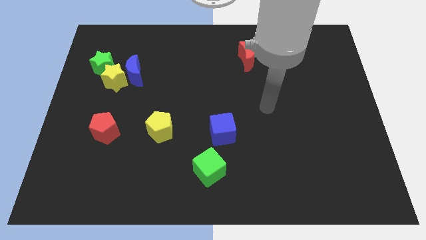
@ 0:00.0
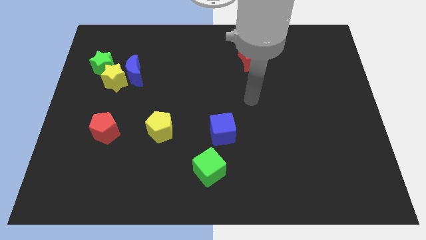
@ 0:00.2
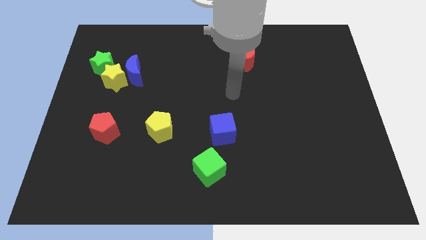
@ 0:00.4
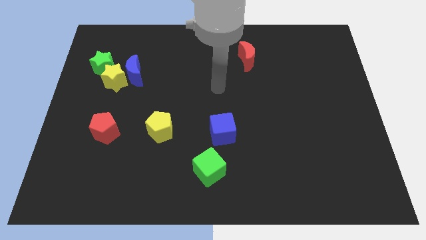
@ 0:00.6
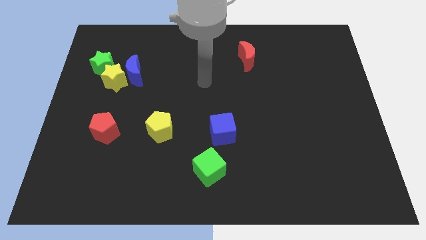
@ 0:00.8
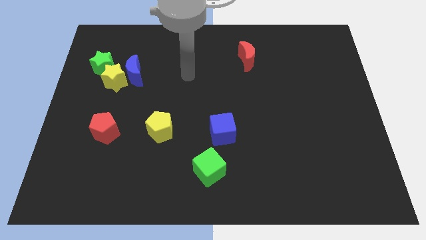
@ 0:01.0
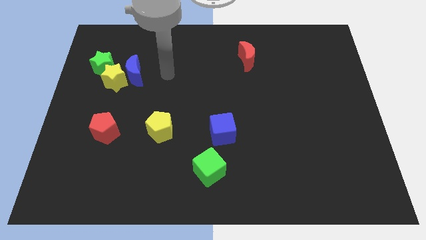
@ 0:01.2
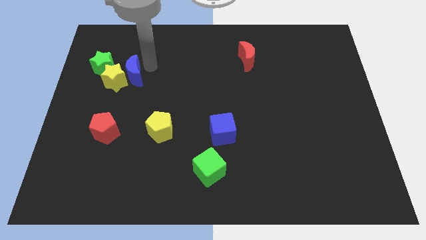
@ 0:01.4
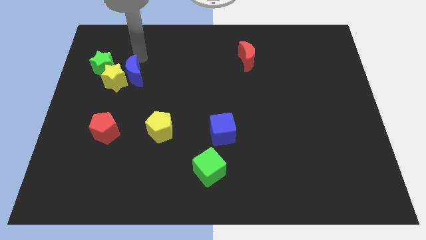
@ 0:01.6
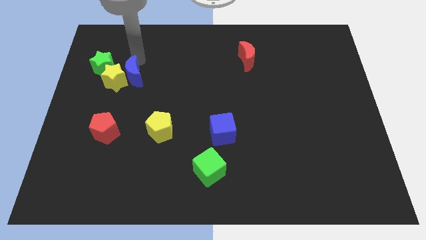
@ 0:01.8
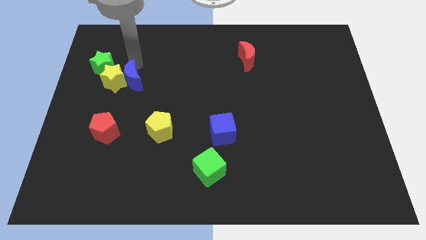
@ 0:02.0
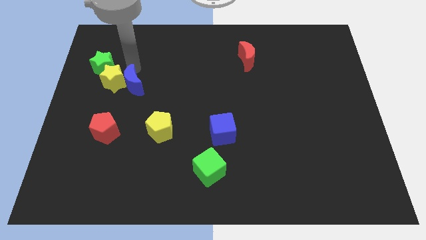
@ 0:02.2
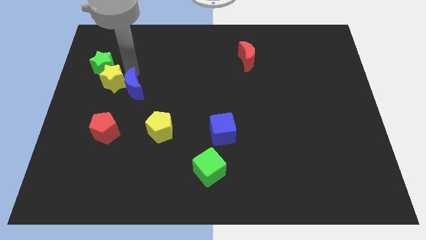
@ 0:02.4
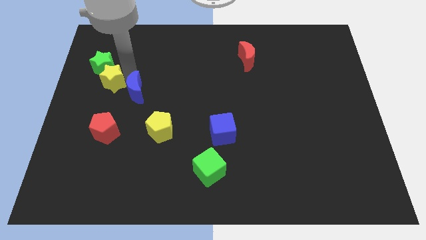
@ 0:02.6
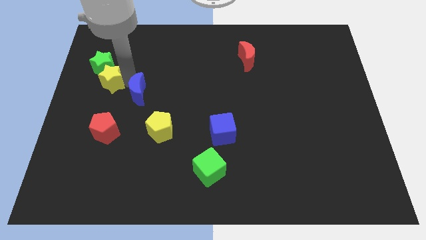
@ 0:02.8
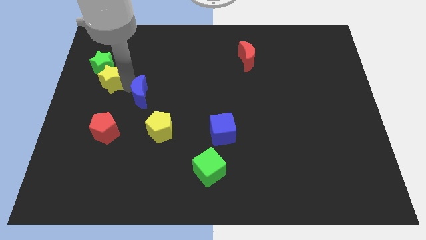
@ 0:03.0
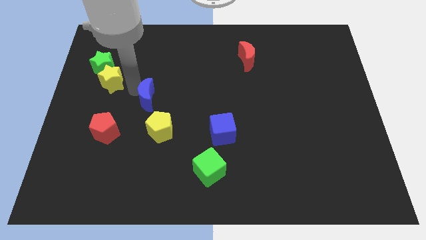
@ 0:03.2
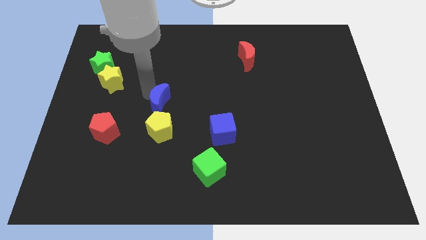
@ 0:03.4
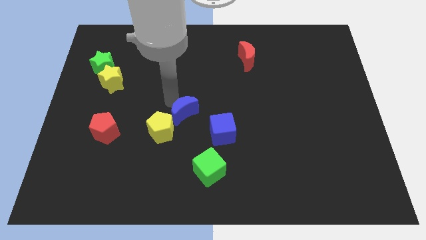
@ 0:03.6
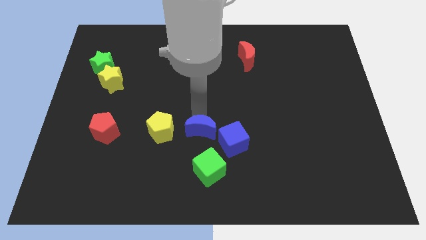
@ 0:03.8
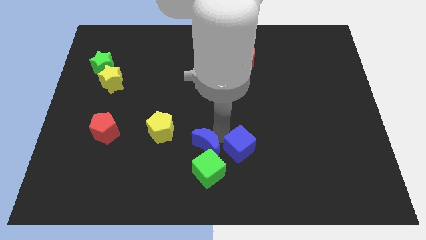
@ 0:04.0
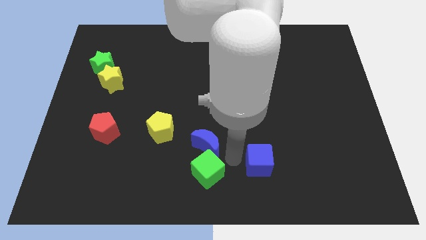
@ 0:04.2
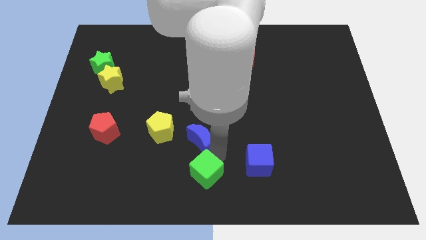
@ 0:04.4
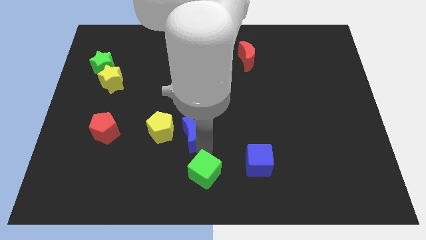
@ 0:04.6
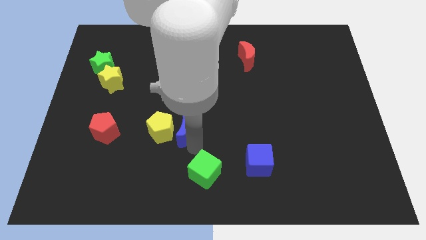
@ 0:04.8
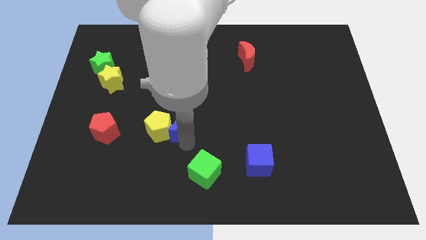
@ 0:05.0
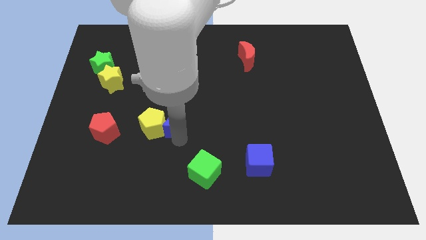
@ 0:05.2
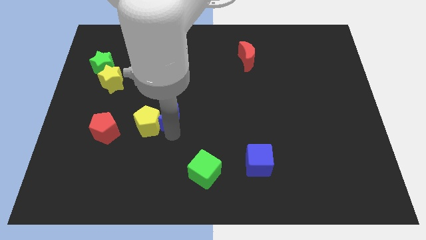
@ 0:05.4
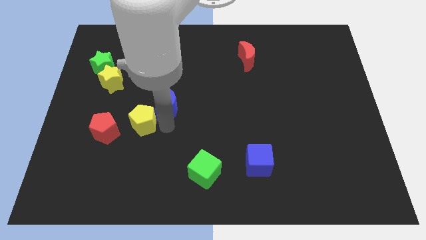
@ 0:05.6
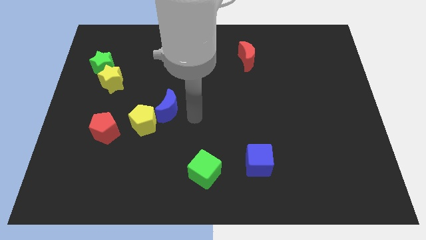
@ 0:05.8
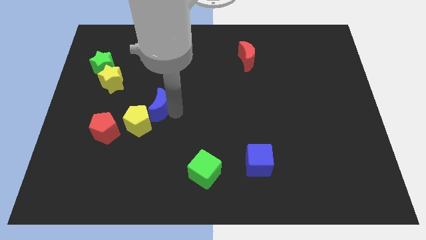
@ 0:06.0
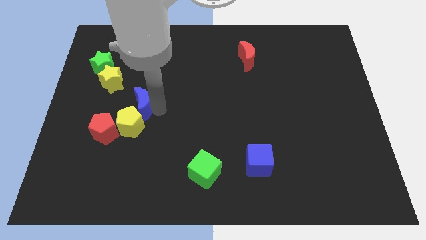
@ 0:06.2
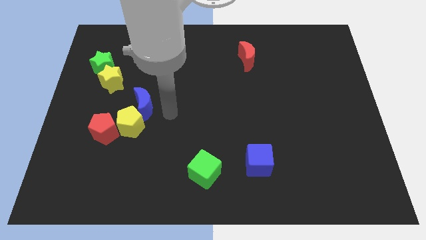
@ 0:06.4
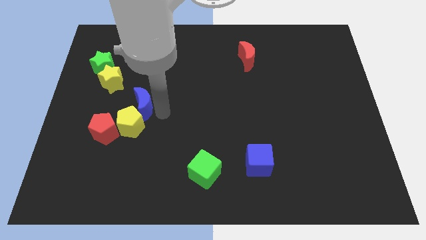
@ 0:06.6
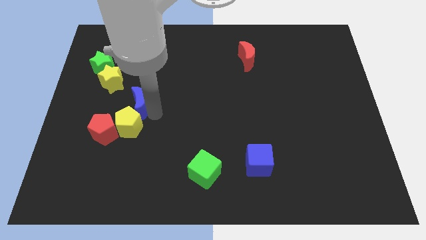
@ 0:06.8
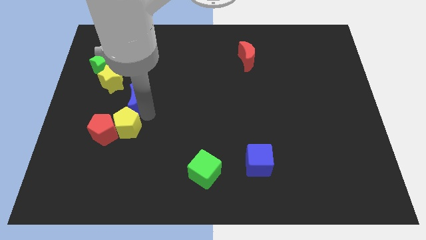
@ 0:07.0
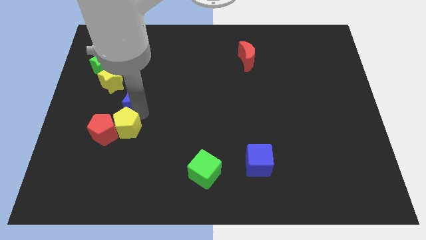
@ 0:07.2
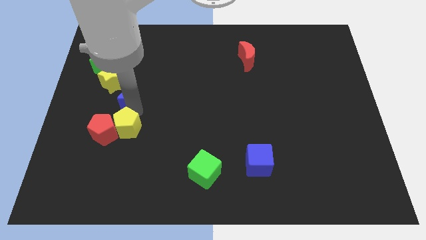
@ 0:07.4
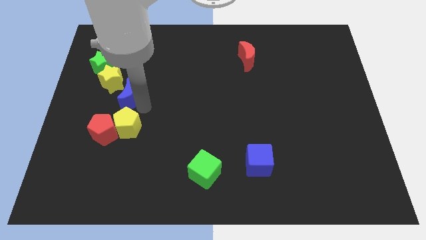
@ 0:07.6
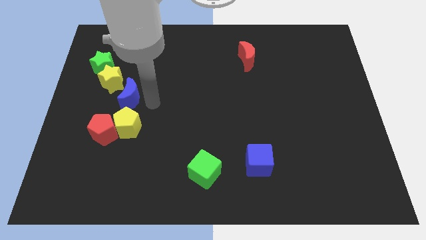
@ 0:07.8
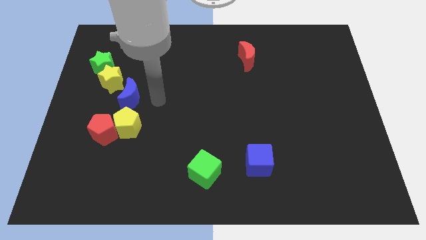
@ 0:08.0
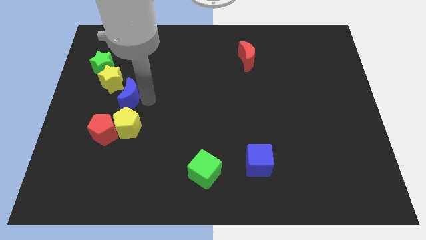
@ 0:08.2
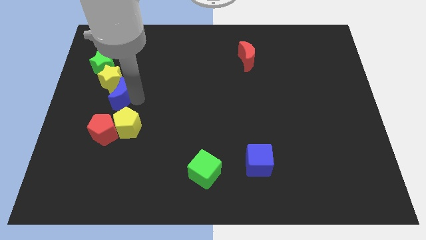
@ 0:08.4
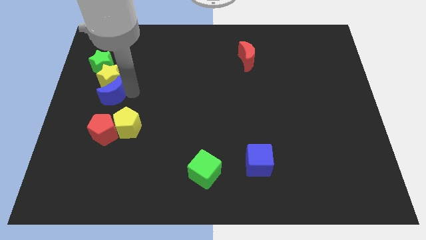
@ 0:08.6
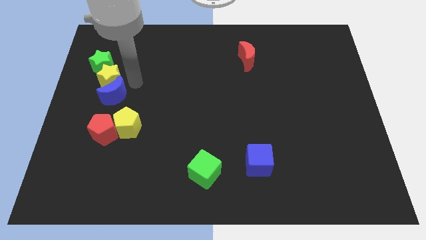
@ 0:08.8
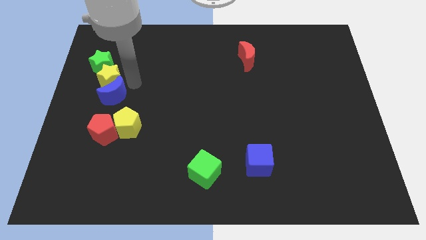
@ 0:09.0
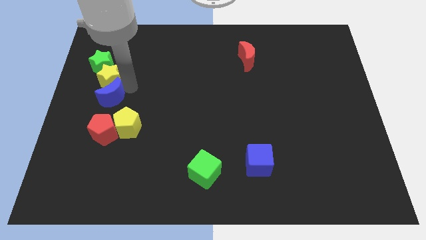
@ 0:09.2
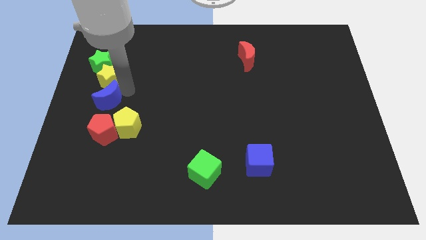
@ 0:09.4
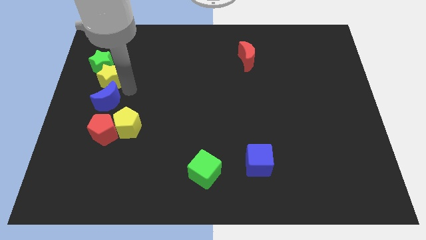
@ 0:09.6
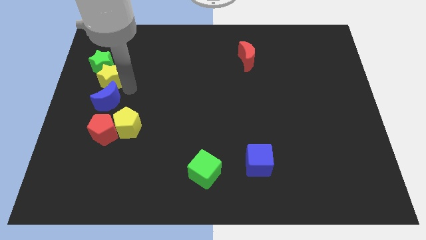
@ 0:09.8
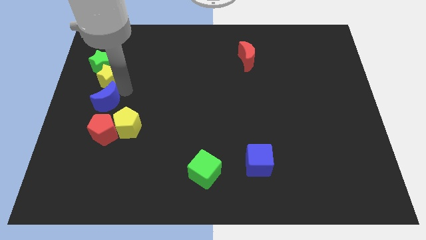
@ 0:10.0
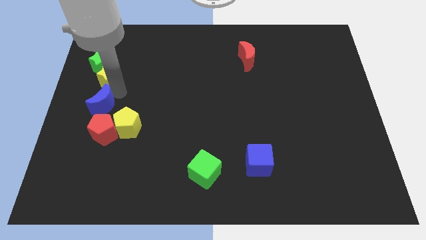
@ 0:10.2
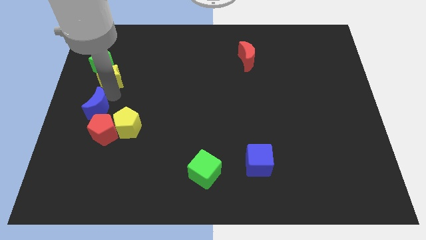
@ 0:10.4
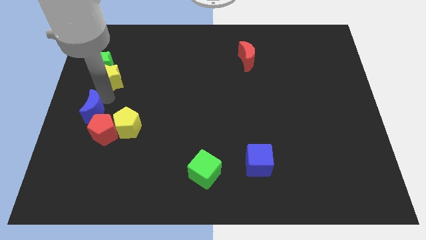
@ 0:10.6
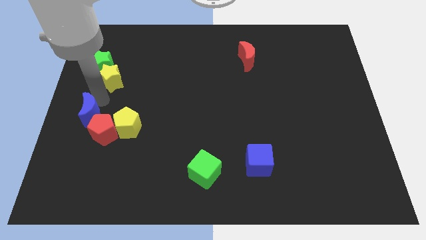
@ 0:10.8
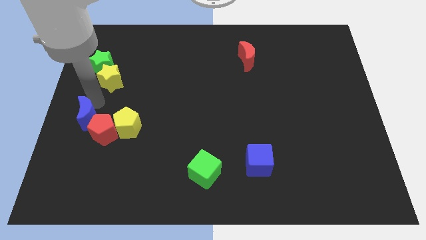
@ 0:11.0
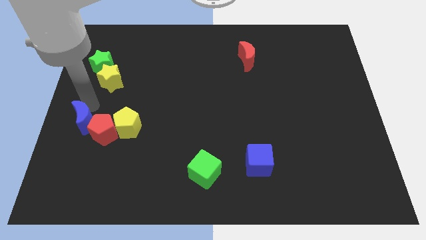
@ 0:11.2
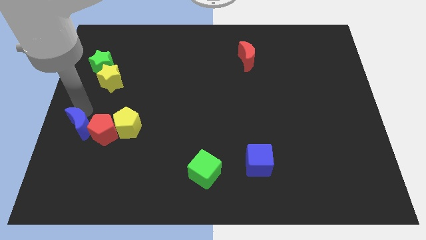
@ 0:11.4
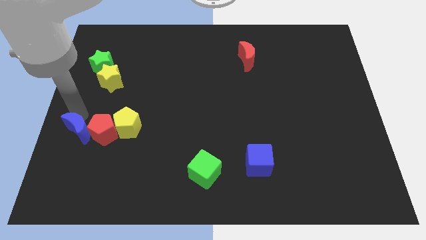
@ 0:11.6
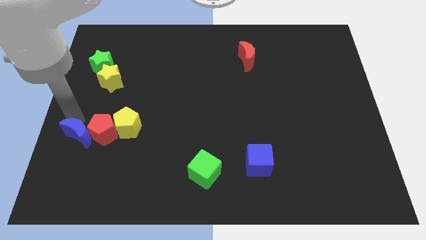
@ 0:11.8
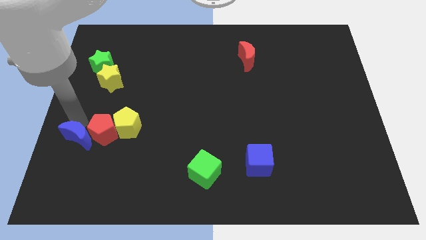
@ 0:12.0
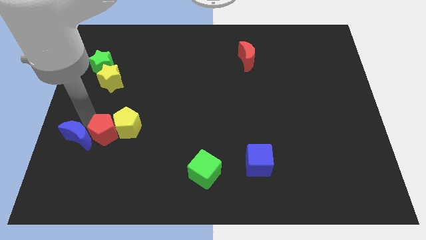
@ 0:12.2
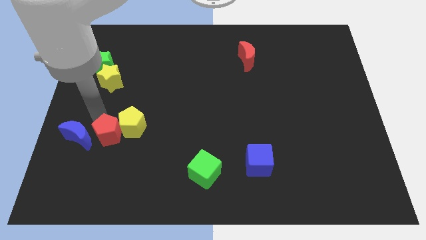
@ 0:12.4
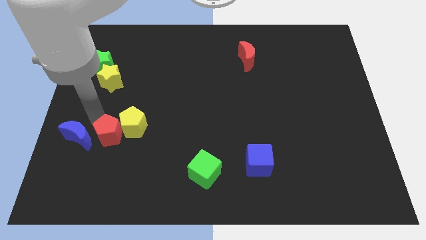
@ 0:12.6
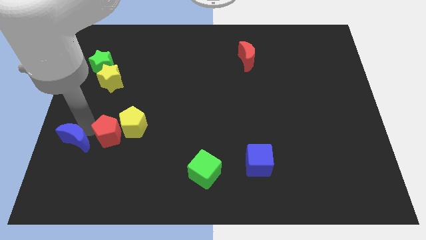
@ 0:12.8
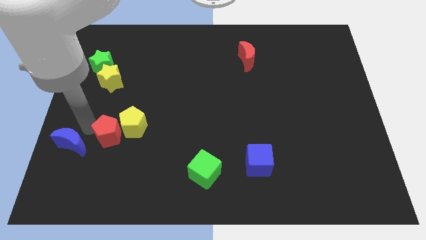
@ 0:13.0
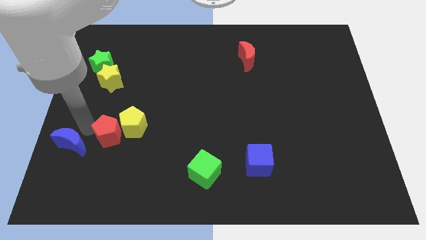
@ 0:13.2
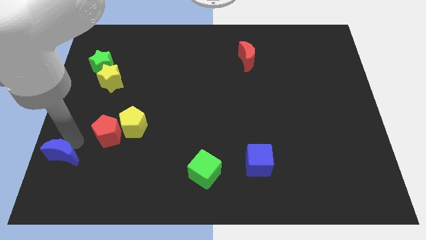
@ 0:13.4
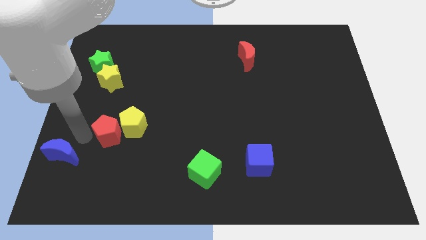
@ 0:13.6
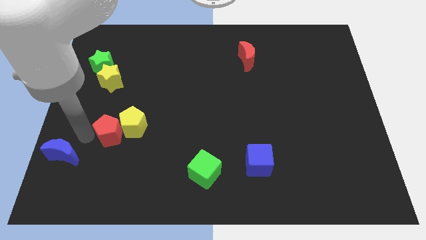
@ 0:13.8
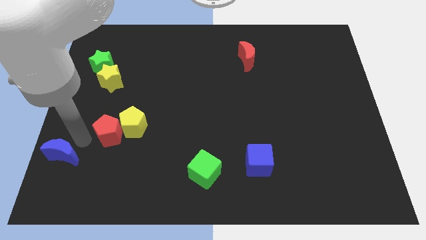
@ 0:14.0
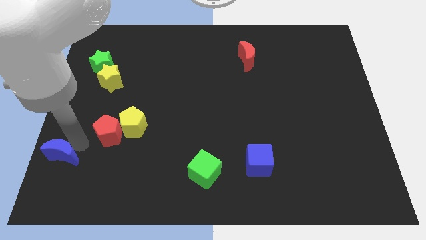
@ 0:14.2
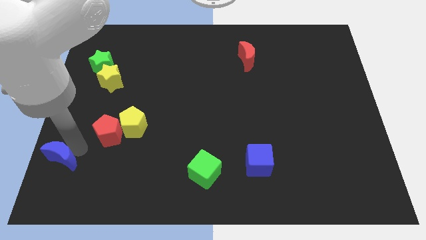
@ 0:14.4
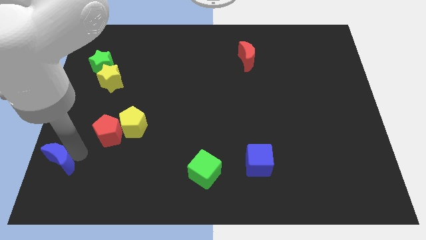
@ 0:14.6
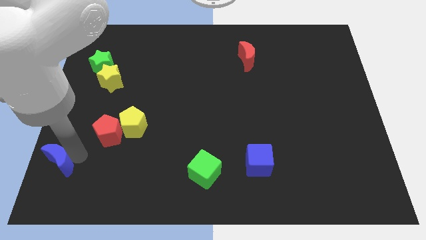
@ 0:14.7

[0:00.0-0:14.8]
move the blue moon to the bottom left
